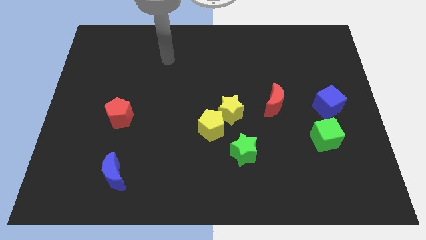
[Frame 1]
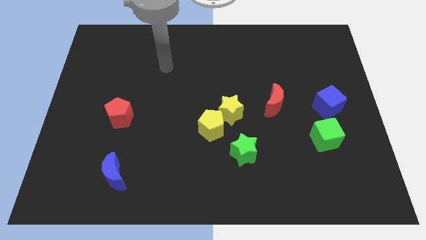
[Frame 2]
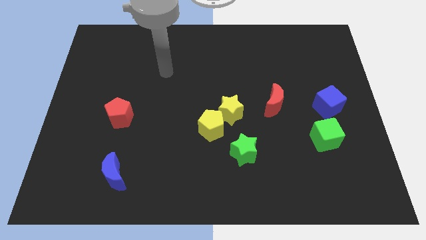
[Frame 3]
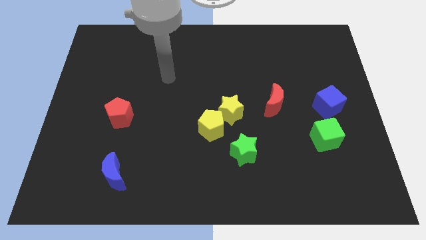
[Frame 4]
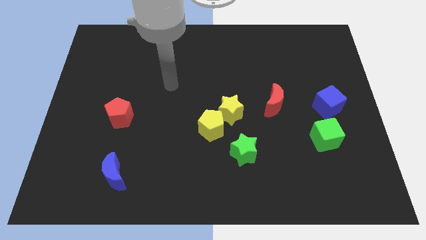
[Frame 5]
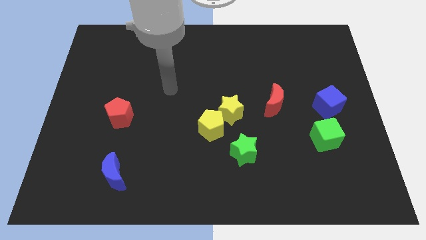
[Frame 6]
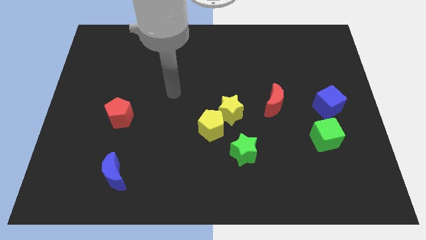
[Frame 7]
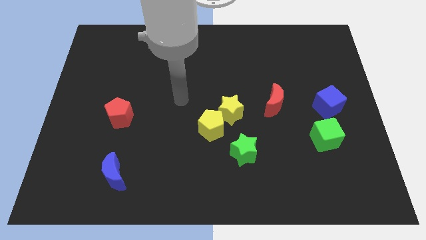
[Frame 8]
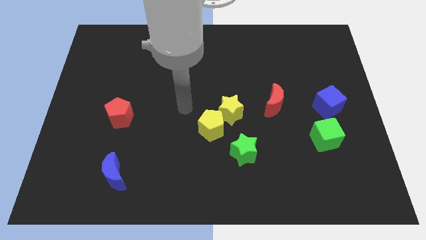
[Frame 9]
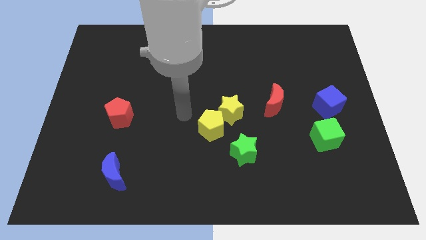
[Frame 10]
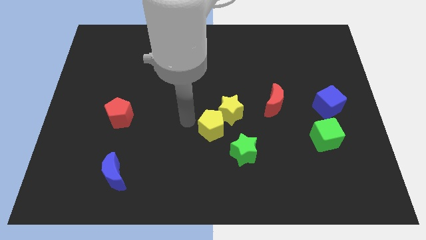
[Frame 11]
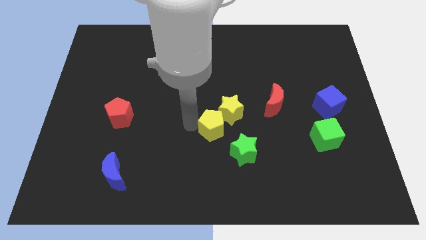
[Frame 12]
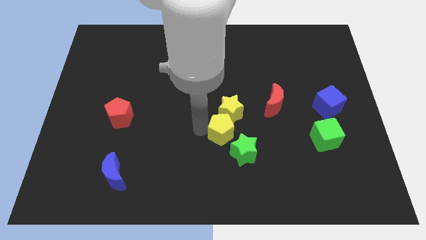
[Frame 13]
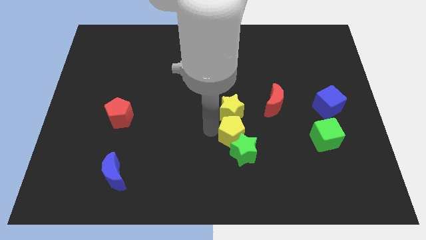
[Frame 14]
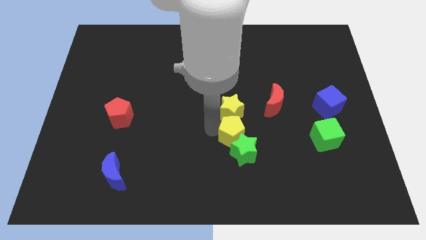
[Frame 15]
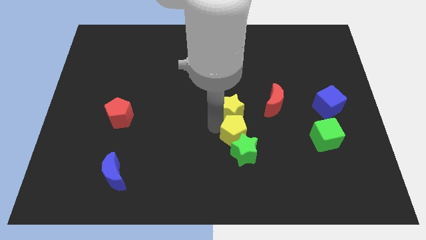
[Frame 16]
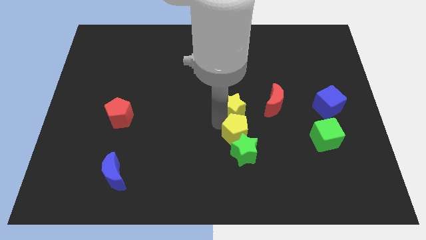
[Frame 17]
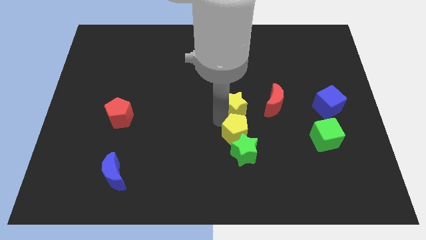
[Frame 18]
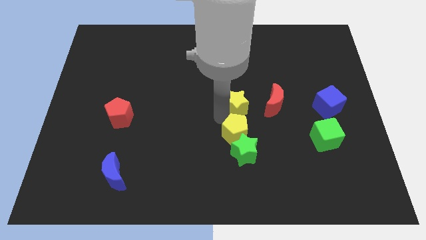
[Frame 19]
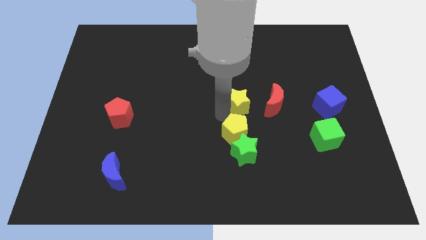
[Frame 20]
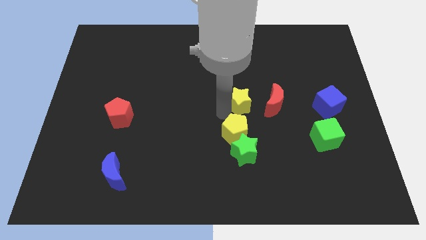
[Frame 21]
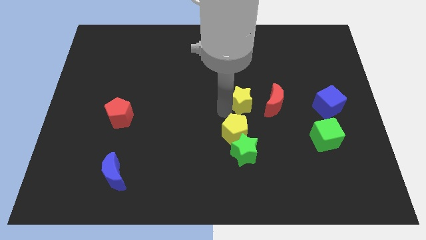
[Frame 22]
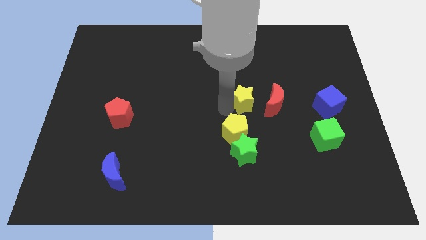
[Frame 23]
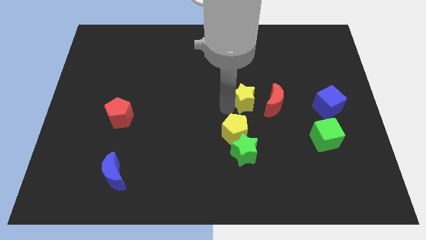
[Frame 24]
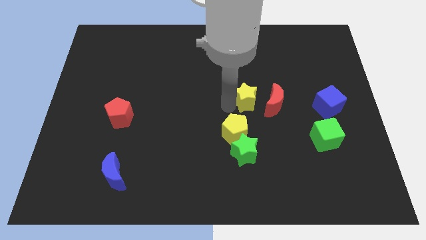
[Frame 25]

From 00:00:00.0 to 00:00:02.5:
move the yellow star away from the yellow pentagon

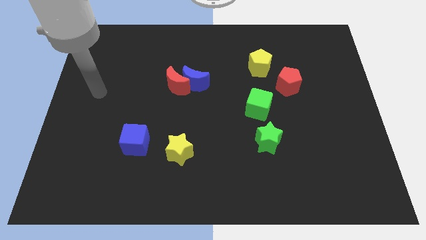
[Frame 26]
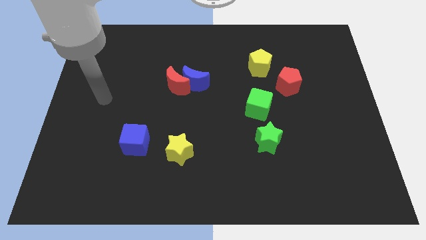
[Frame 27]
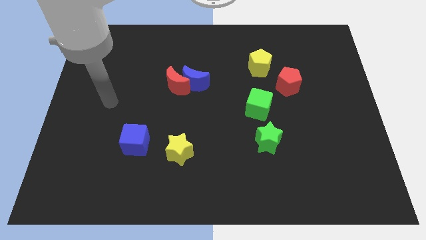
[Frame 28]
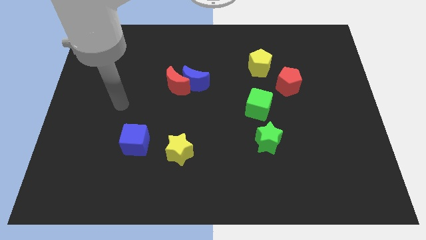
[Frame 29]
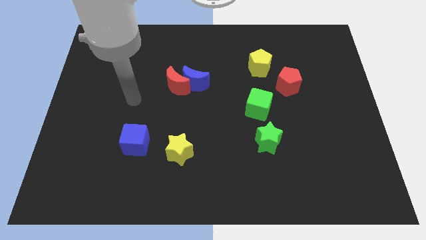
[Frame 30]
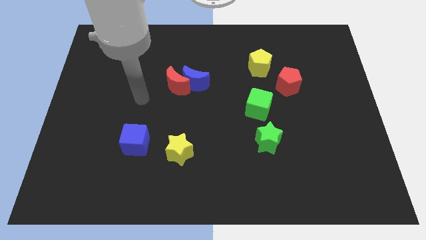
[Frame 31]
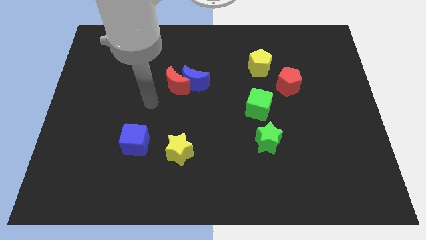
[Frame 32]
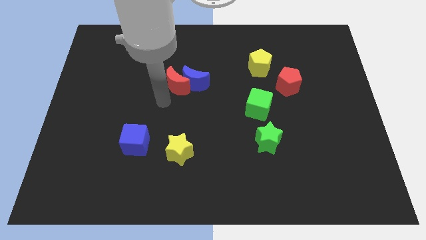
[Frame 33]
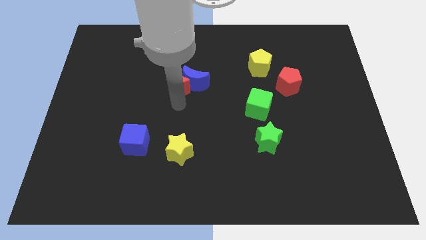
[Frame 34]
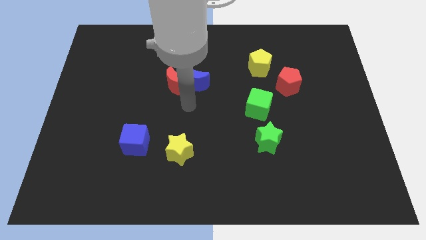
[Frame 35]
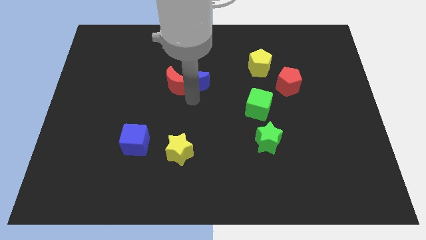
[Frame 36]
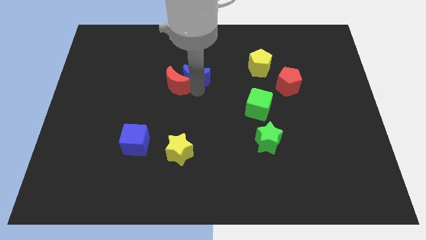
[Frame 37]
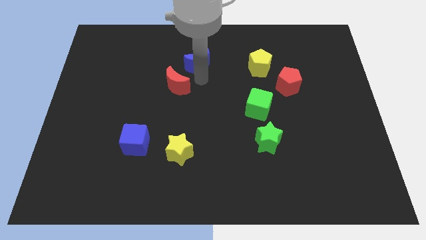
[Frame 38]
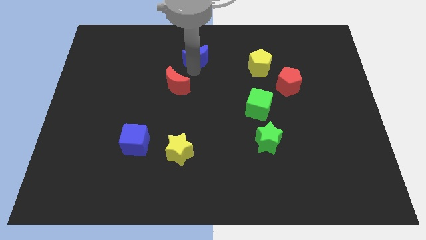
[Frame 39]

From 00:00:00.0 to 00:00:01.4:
separate the red moon from the blue moon

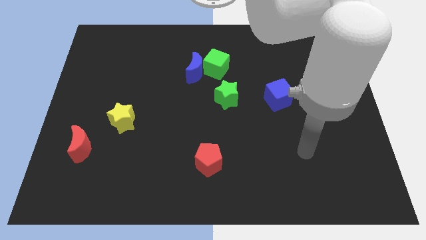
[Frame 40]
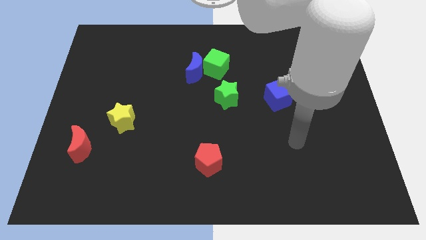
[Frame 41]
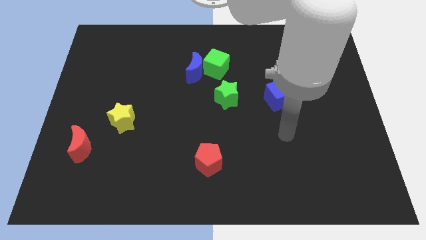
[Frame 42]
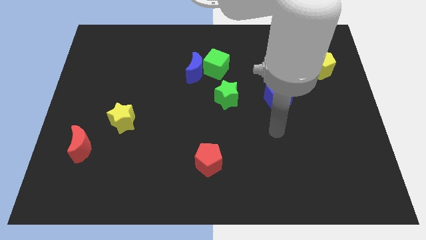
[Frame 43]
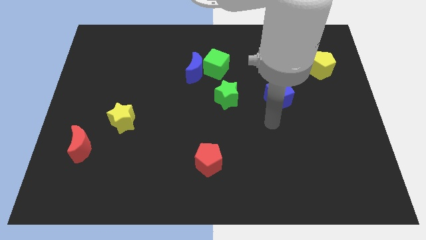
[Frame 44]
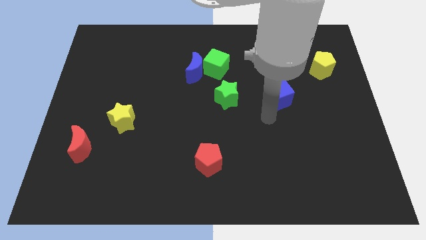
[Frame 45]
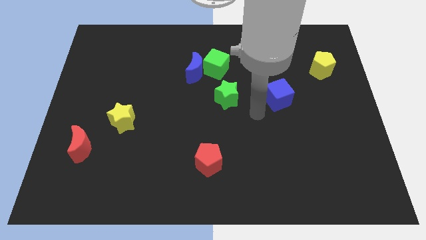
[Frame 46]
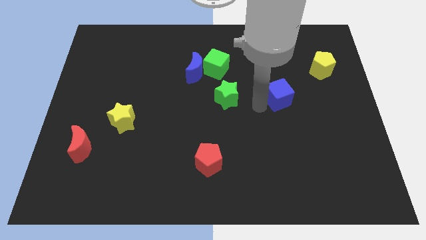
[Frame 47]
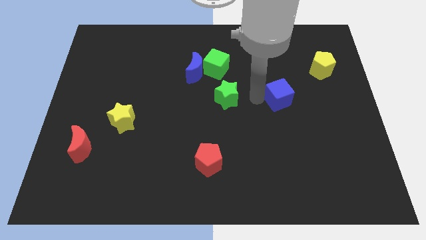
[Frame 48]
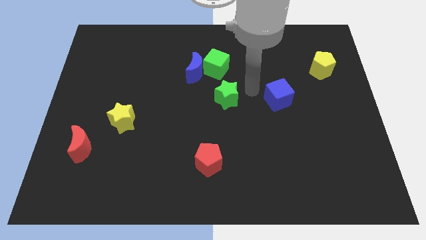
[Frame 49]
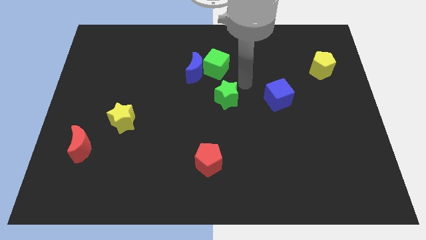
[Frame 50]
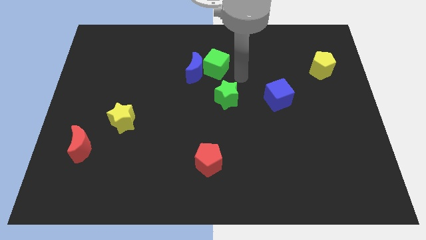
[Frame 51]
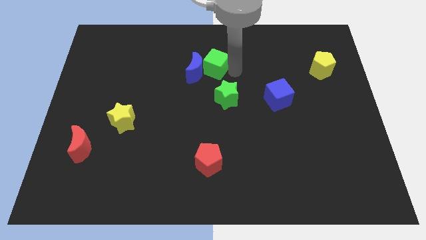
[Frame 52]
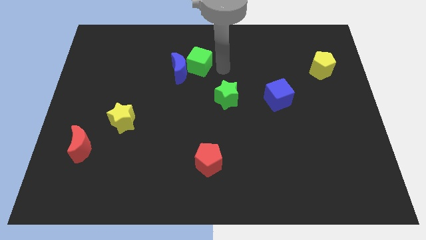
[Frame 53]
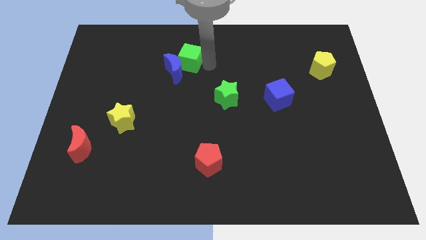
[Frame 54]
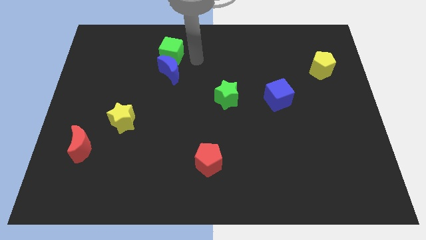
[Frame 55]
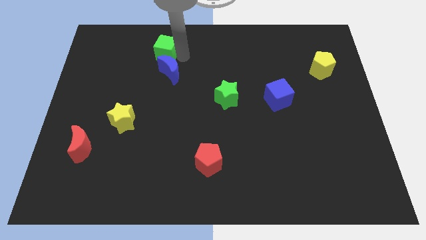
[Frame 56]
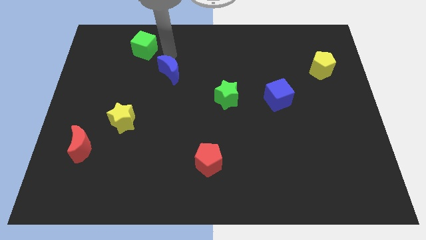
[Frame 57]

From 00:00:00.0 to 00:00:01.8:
move the blue moon away from the green cube

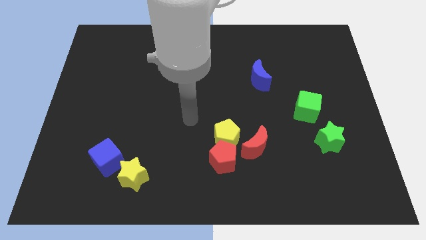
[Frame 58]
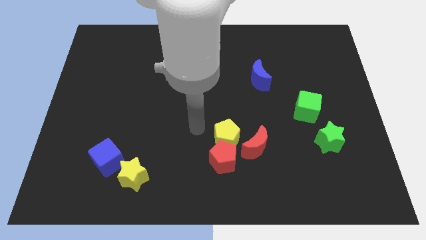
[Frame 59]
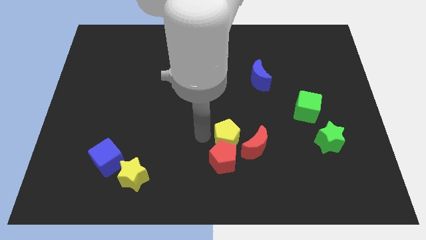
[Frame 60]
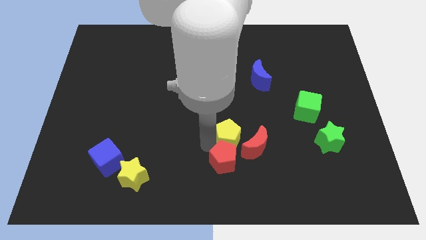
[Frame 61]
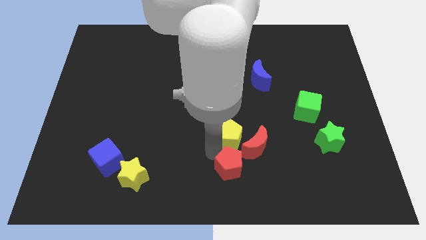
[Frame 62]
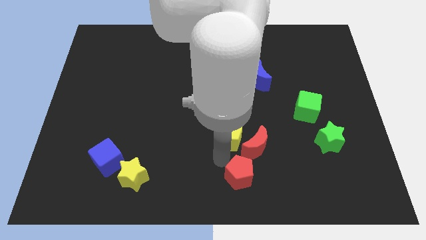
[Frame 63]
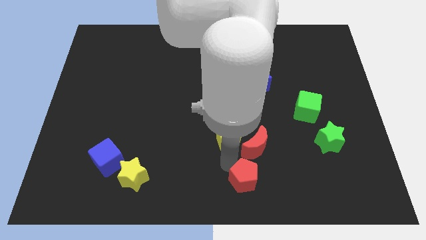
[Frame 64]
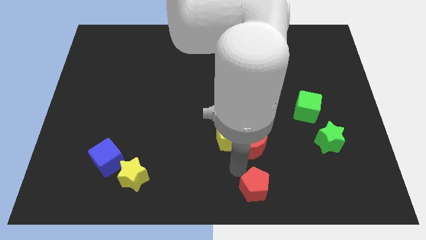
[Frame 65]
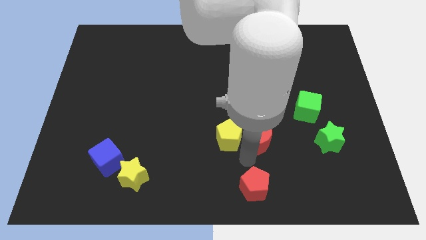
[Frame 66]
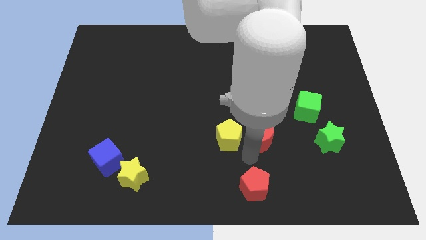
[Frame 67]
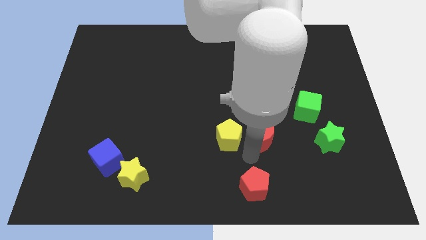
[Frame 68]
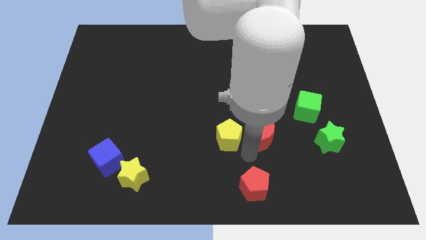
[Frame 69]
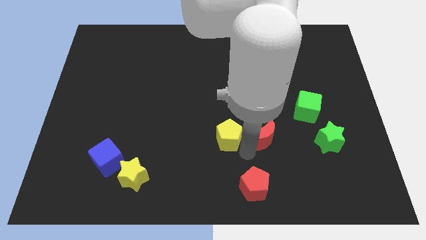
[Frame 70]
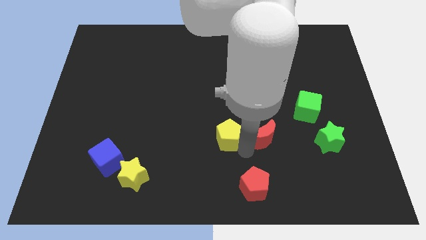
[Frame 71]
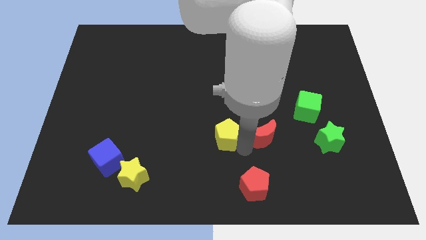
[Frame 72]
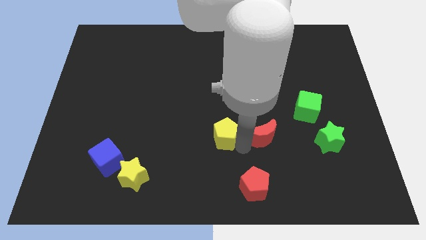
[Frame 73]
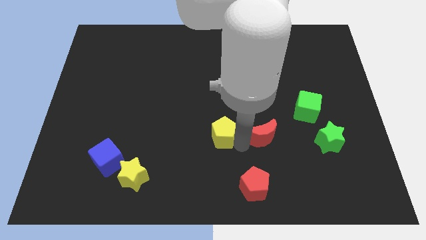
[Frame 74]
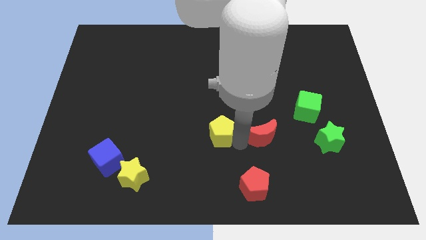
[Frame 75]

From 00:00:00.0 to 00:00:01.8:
separate the yellow pentagon from the red pentagon and red moon

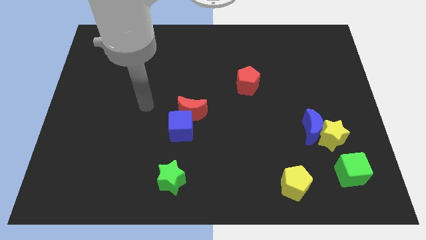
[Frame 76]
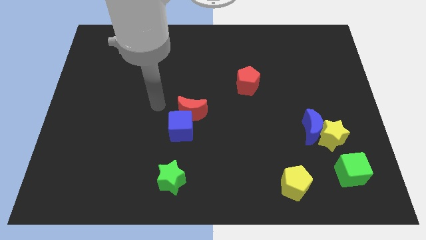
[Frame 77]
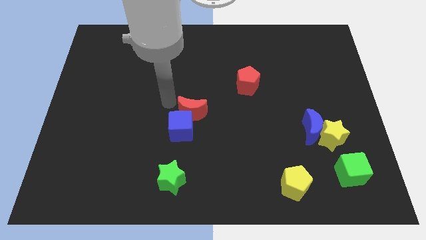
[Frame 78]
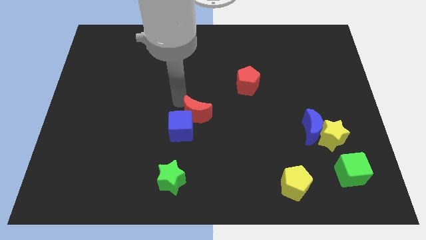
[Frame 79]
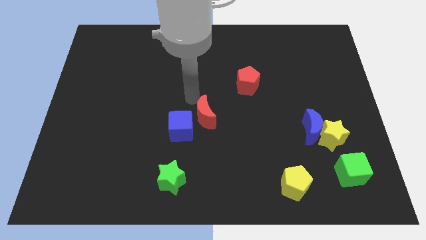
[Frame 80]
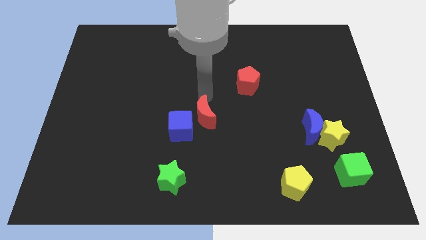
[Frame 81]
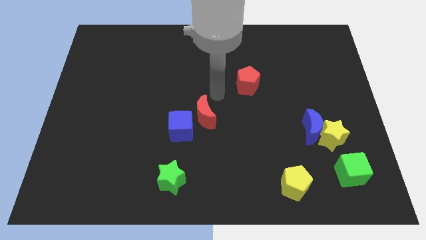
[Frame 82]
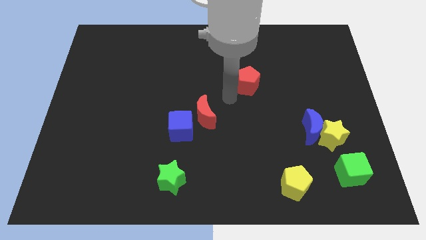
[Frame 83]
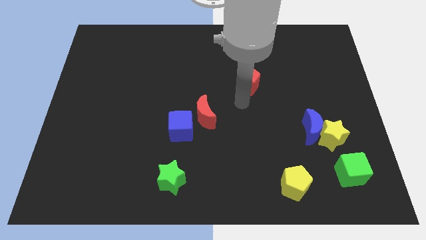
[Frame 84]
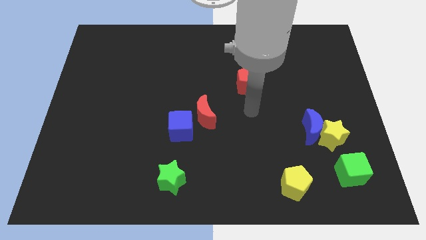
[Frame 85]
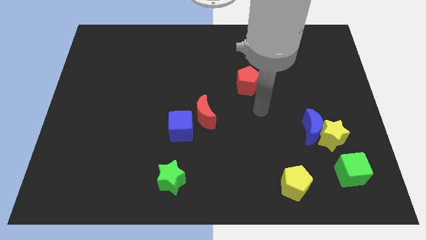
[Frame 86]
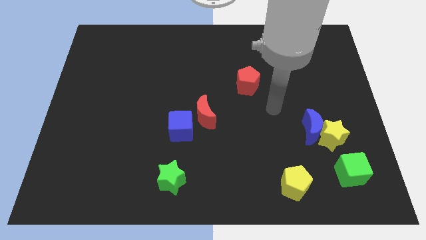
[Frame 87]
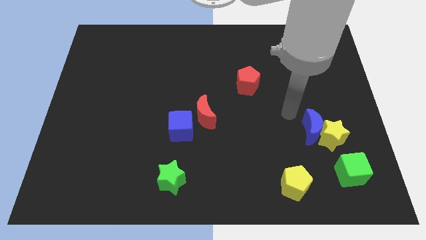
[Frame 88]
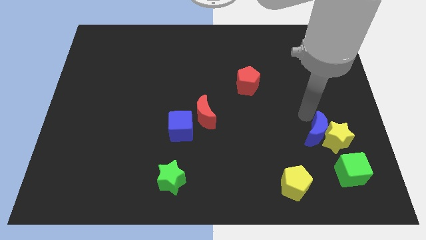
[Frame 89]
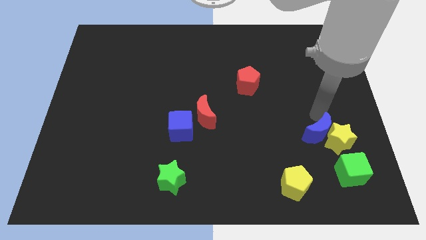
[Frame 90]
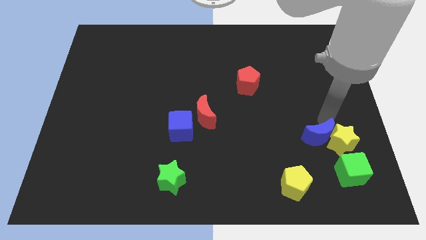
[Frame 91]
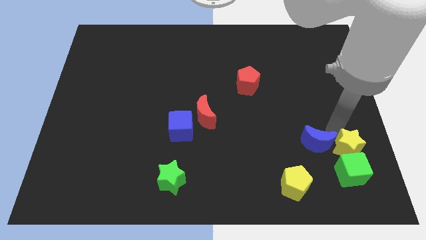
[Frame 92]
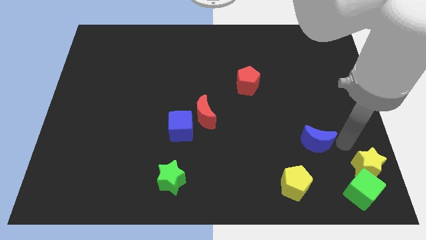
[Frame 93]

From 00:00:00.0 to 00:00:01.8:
move the blue moon away from the yellow star

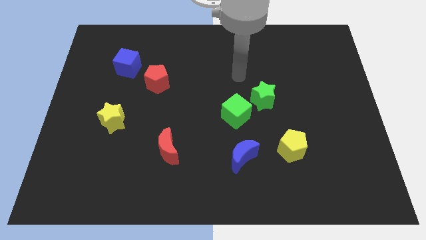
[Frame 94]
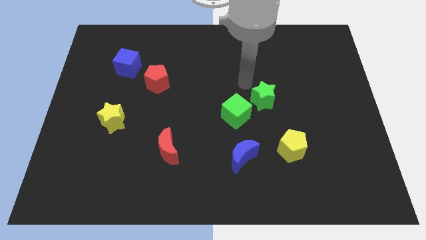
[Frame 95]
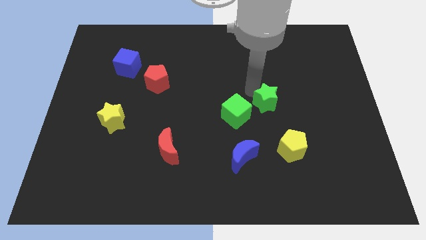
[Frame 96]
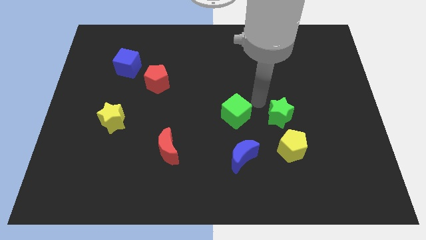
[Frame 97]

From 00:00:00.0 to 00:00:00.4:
separate the green cube from the green star
